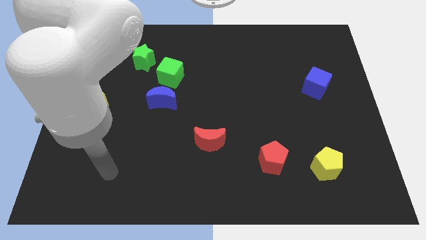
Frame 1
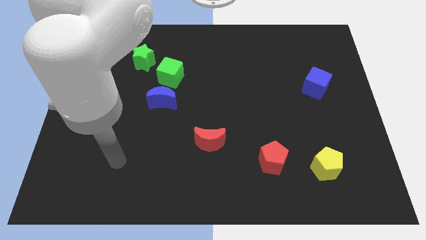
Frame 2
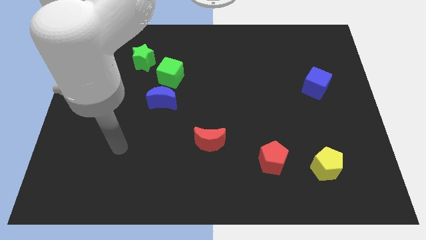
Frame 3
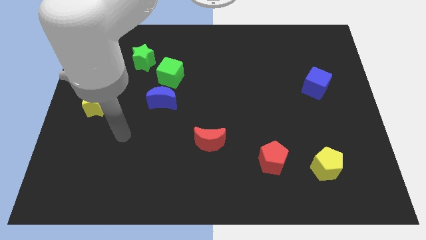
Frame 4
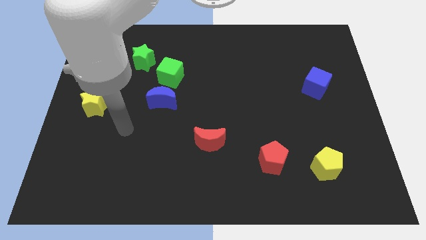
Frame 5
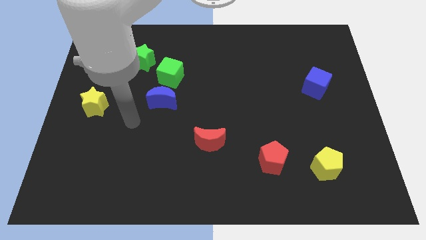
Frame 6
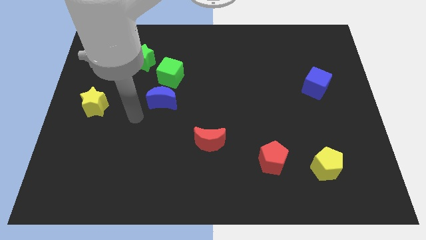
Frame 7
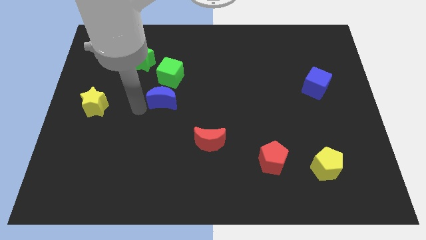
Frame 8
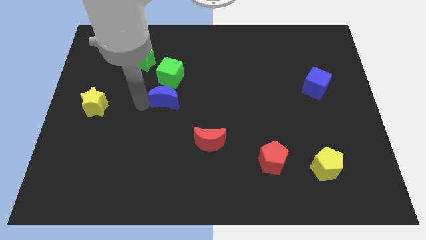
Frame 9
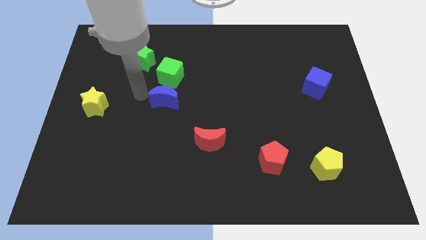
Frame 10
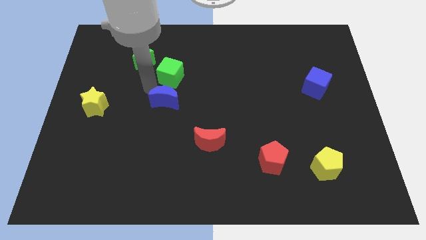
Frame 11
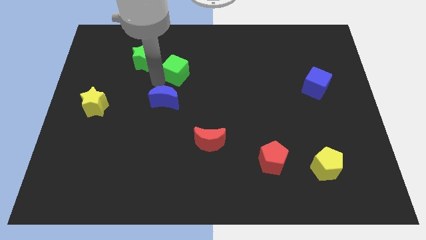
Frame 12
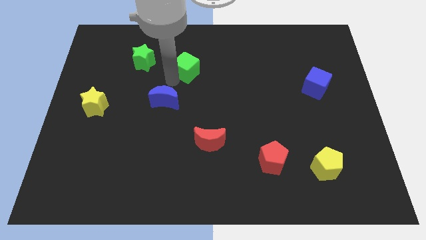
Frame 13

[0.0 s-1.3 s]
pull the blue moon apart from the green cube

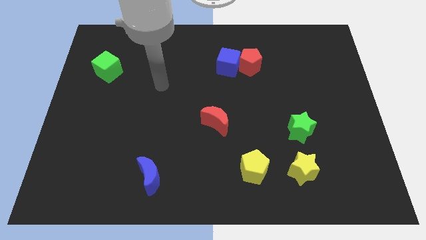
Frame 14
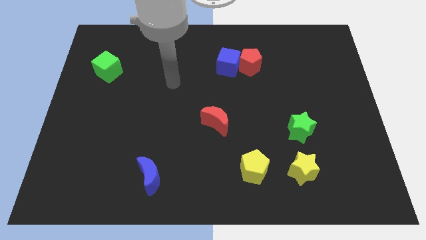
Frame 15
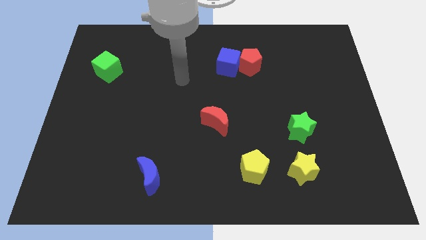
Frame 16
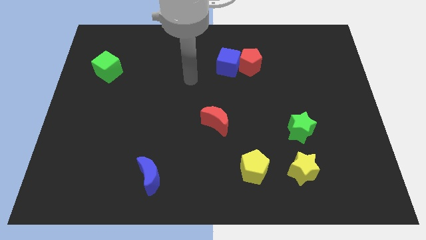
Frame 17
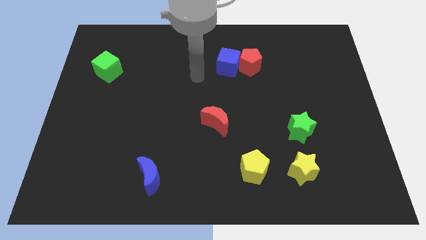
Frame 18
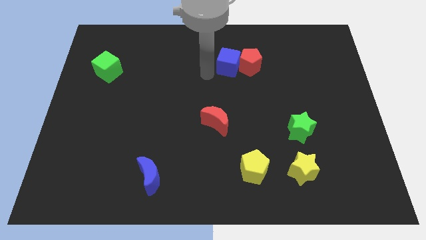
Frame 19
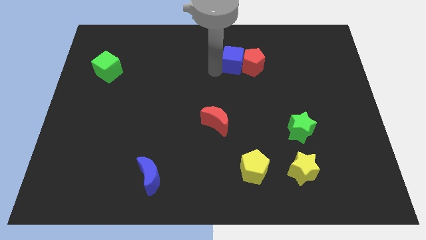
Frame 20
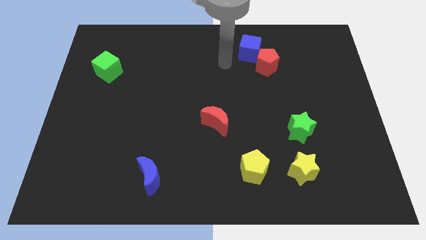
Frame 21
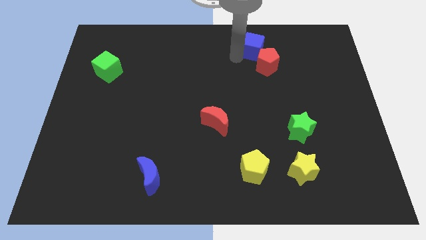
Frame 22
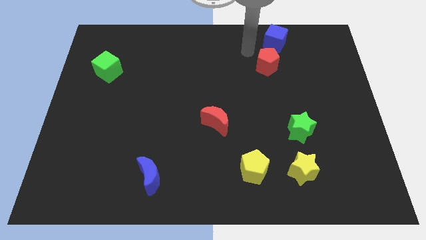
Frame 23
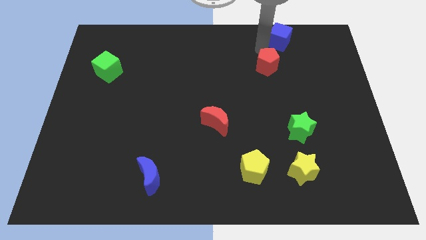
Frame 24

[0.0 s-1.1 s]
pull the red pentagon apart from the blue cube

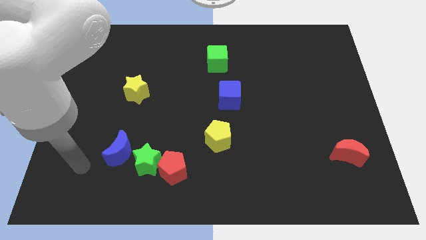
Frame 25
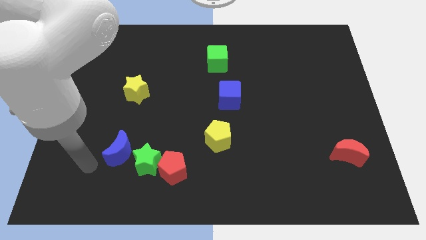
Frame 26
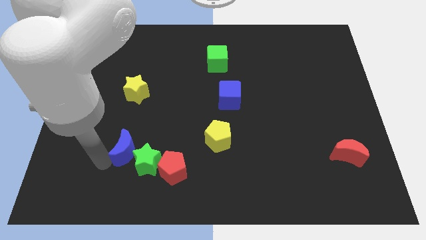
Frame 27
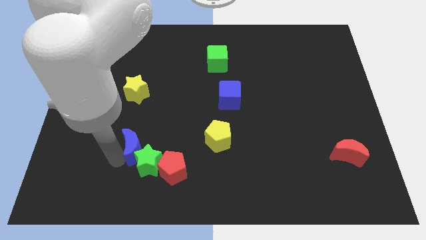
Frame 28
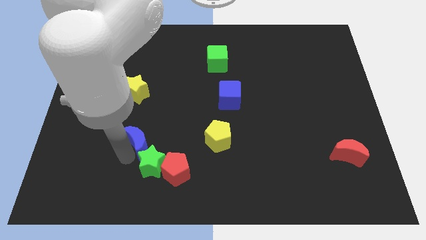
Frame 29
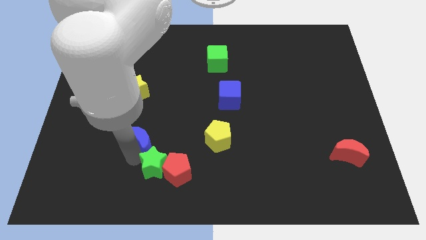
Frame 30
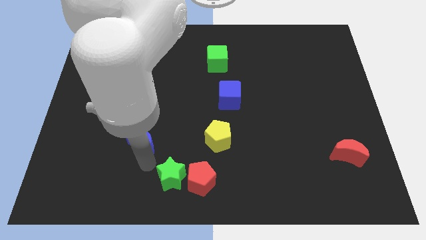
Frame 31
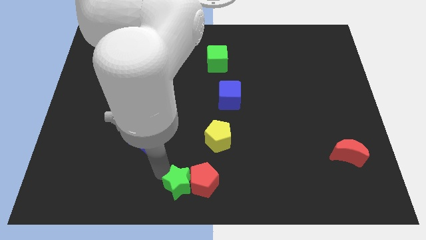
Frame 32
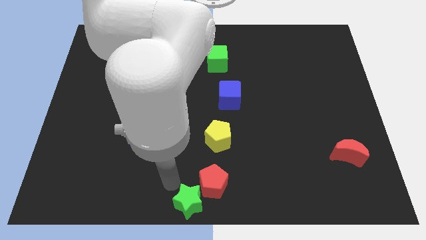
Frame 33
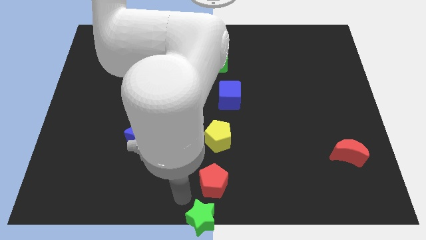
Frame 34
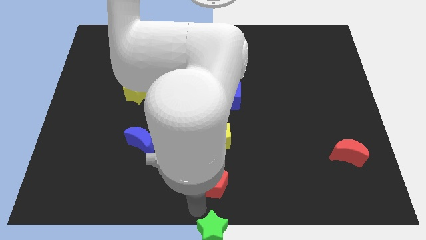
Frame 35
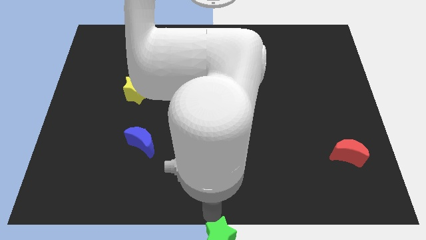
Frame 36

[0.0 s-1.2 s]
move the red pentagon away from the green star

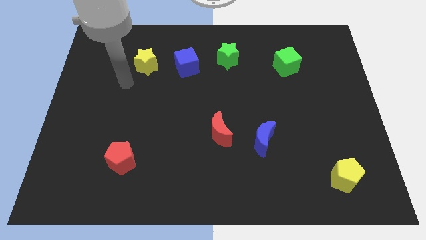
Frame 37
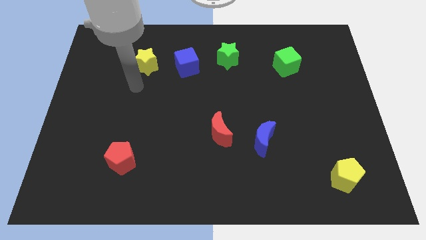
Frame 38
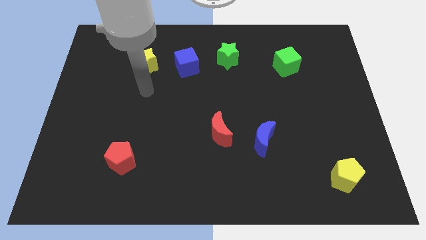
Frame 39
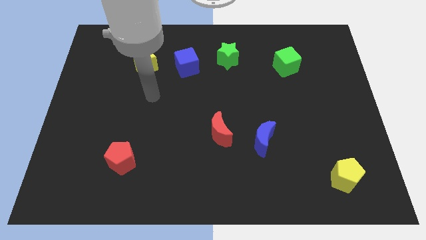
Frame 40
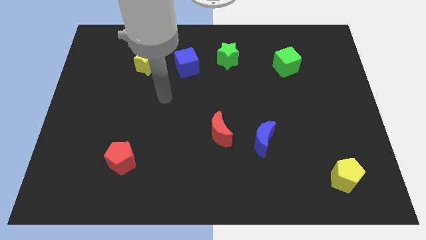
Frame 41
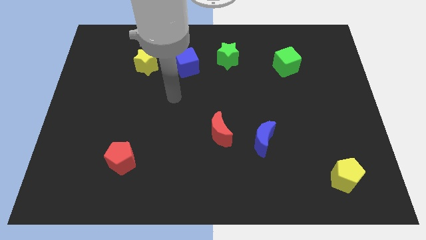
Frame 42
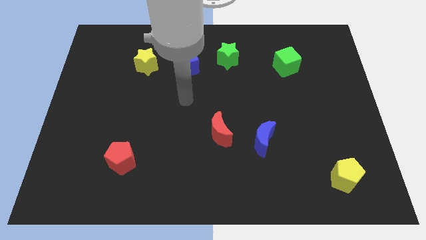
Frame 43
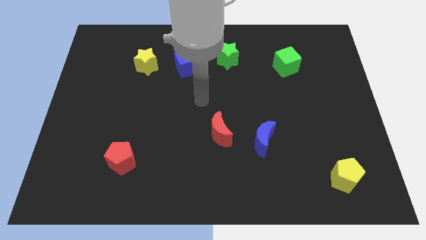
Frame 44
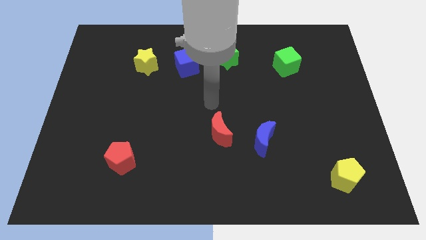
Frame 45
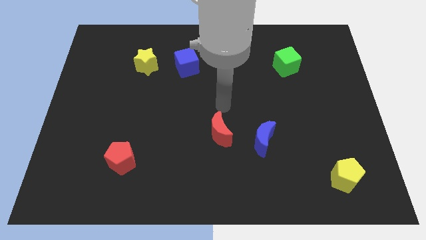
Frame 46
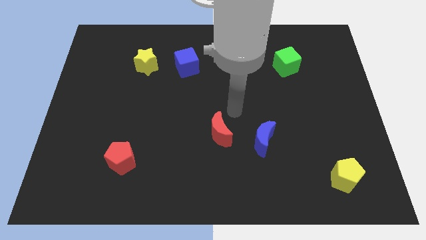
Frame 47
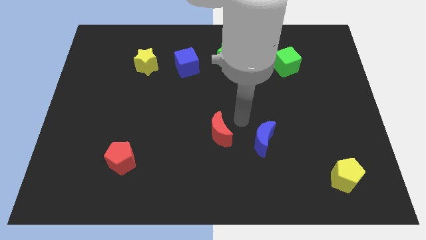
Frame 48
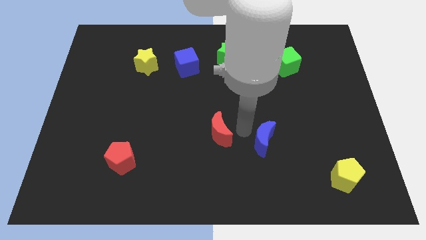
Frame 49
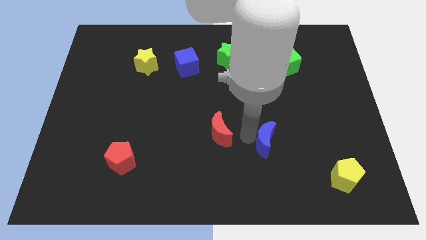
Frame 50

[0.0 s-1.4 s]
pull the red moon apart from the blue moon

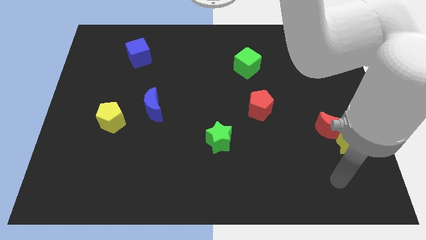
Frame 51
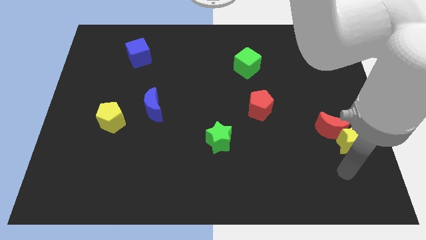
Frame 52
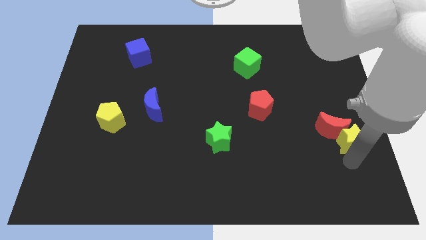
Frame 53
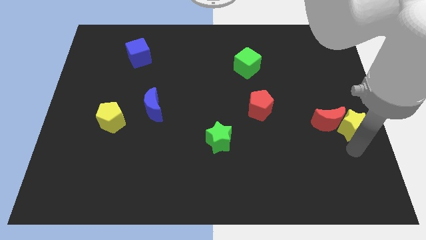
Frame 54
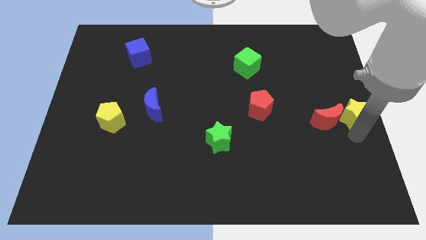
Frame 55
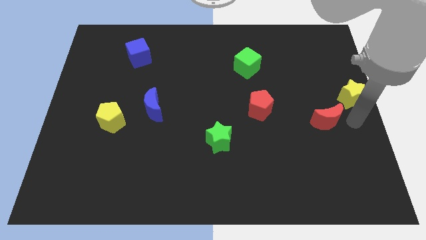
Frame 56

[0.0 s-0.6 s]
separate the red moon from the yellow star

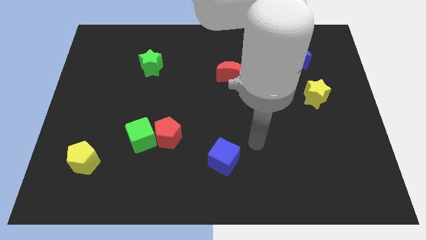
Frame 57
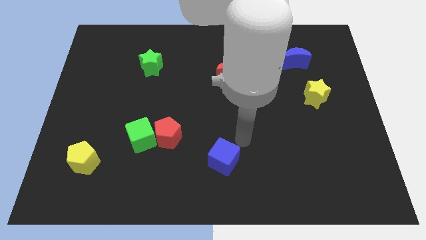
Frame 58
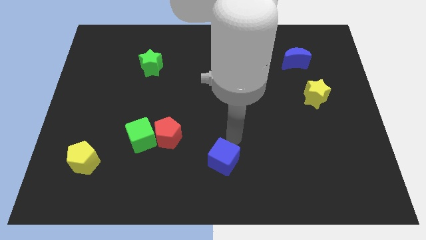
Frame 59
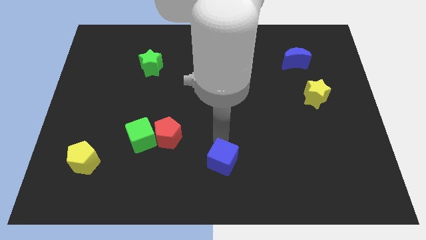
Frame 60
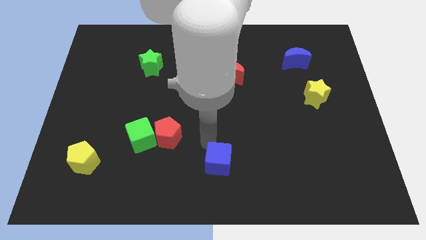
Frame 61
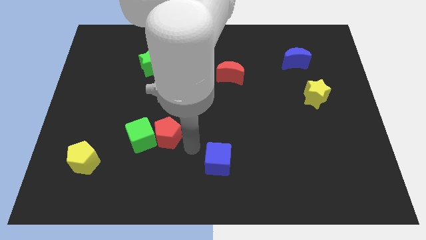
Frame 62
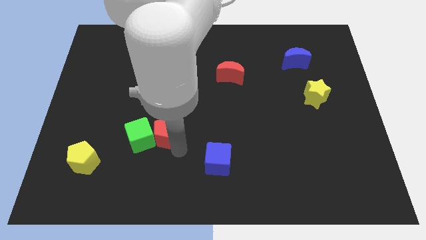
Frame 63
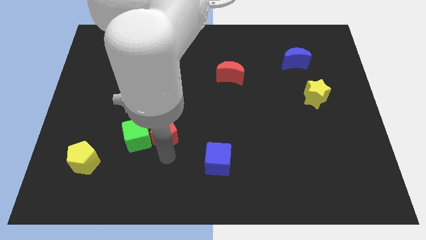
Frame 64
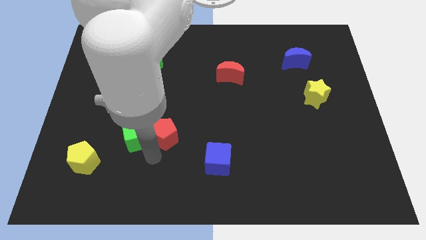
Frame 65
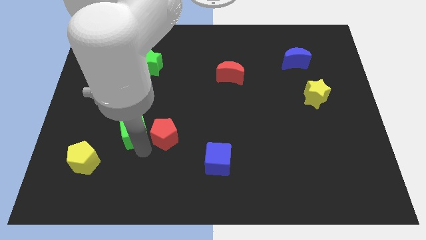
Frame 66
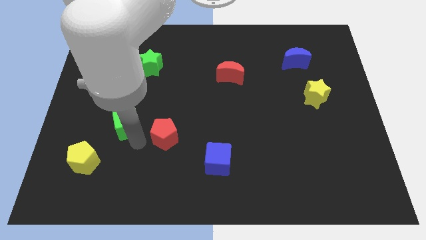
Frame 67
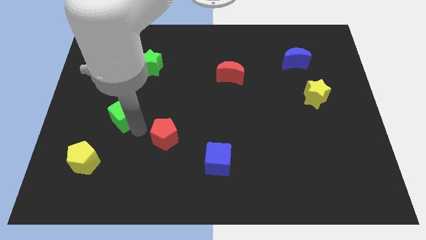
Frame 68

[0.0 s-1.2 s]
pull the red pentagon apart from the green cube

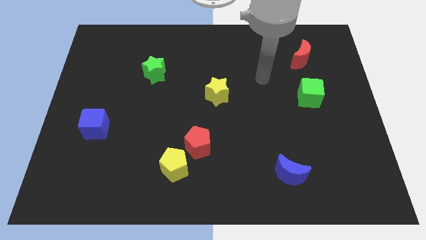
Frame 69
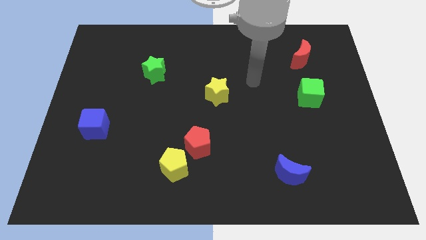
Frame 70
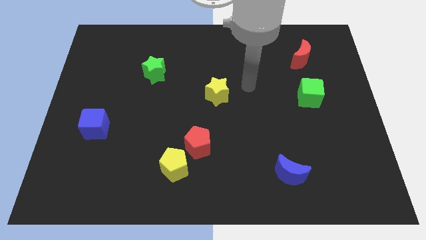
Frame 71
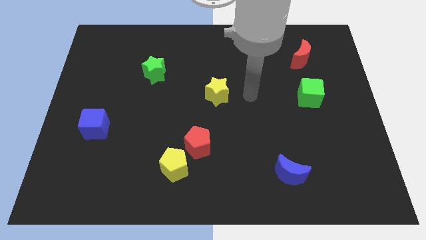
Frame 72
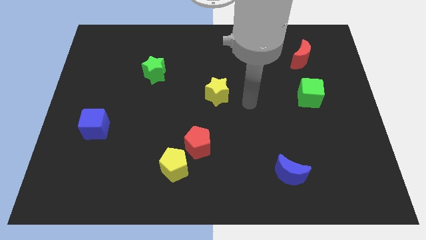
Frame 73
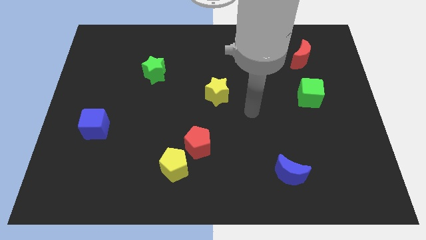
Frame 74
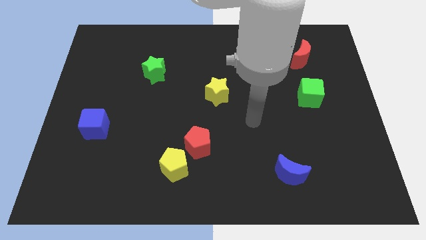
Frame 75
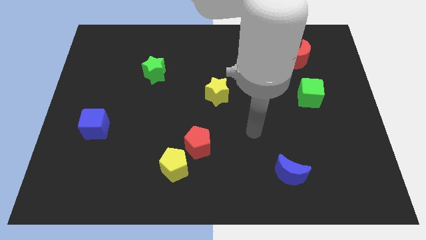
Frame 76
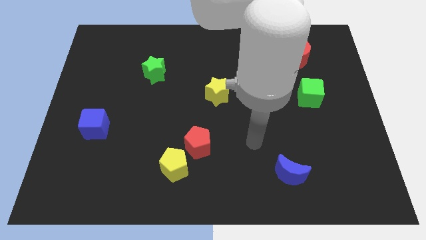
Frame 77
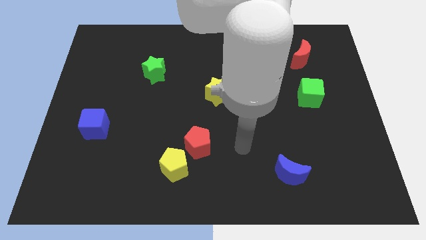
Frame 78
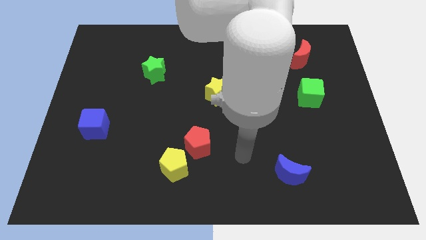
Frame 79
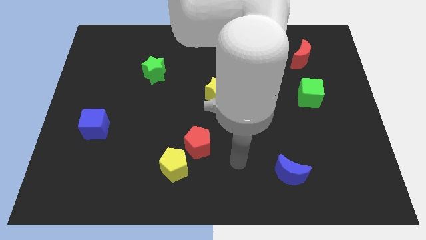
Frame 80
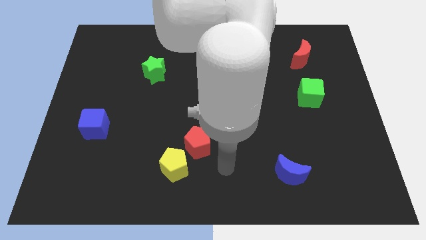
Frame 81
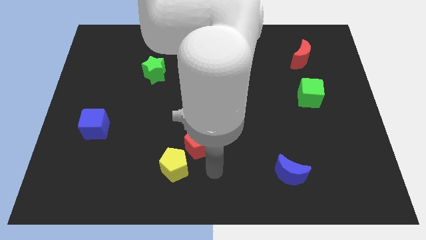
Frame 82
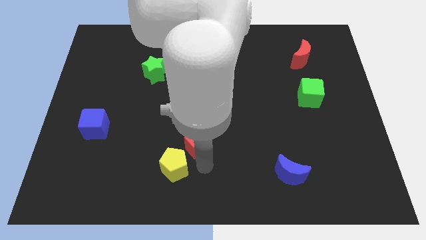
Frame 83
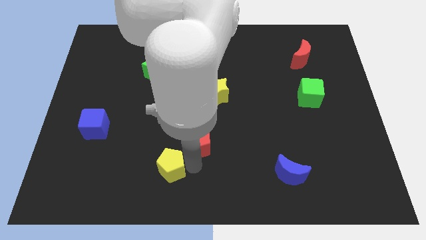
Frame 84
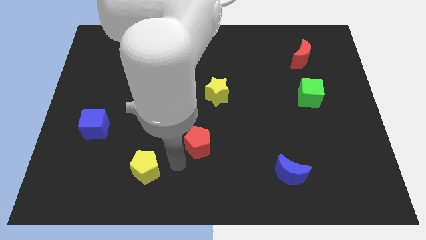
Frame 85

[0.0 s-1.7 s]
separate the red pentagon from the yellow pentagon

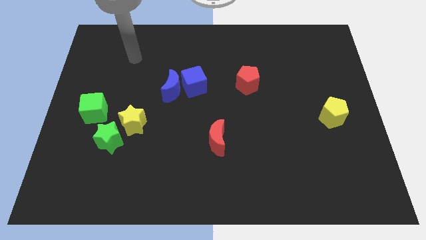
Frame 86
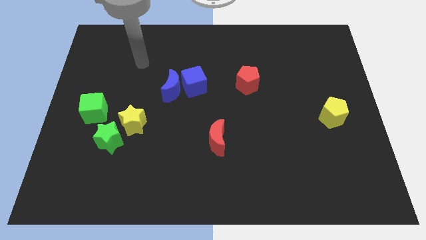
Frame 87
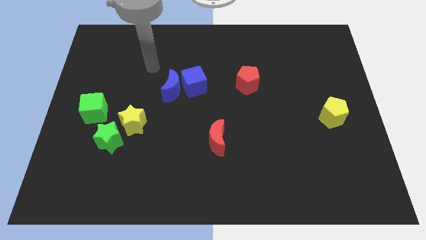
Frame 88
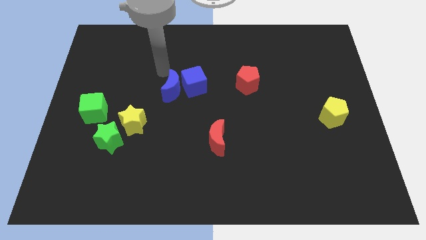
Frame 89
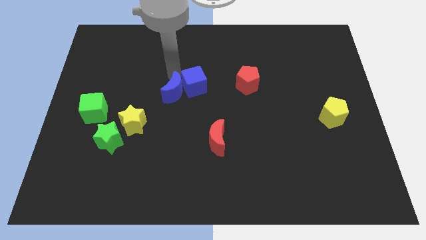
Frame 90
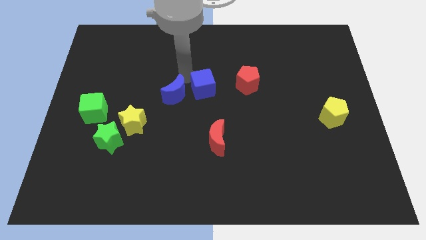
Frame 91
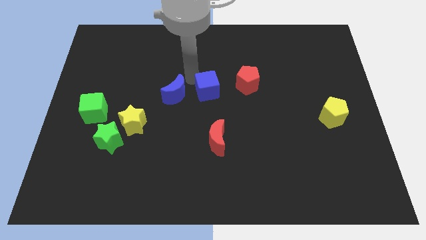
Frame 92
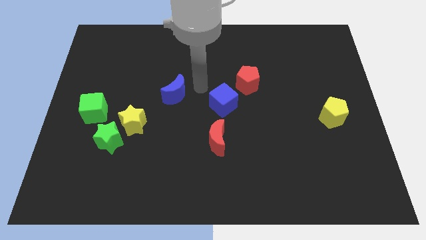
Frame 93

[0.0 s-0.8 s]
separate the blue moon from the blue cube
